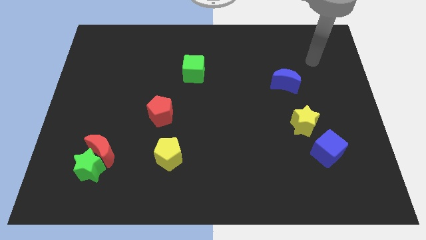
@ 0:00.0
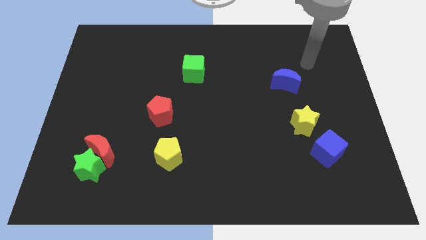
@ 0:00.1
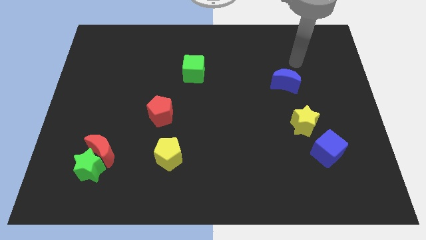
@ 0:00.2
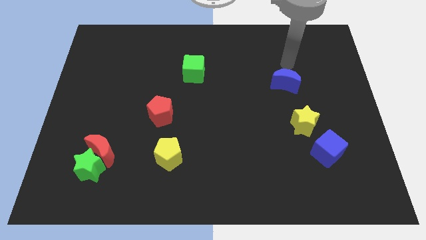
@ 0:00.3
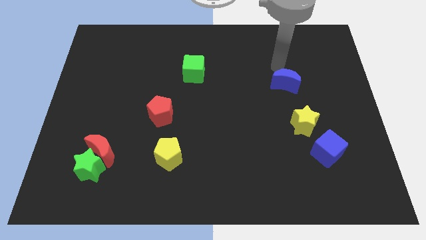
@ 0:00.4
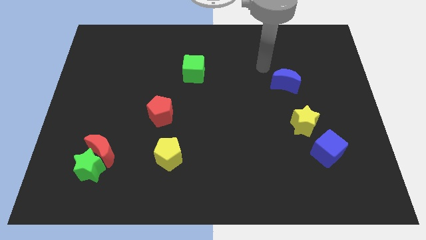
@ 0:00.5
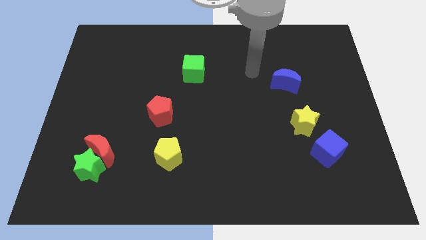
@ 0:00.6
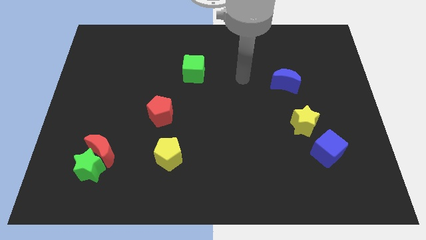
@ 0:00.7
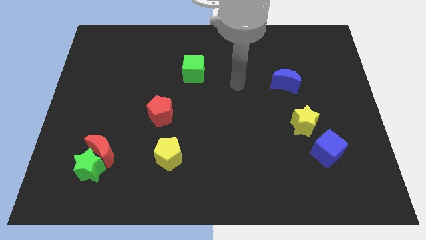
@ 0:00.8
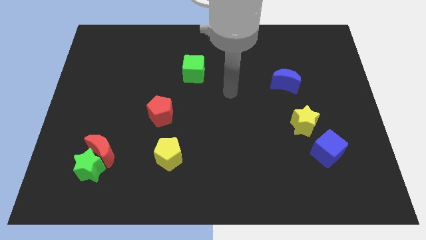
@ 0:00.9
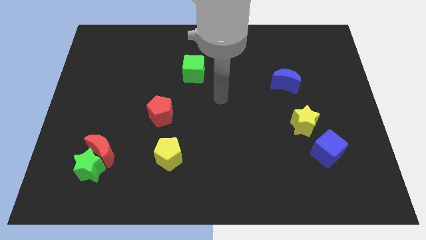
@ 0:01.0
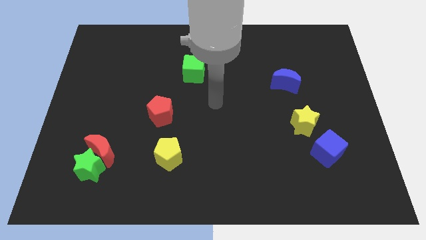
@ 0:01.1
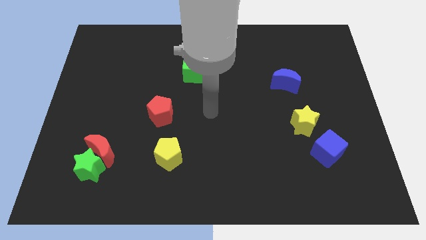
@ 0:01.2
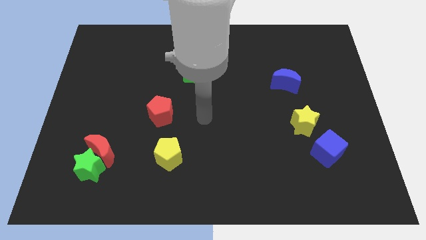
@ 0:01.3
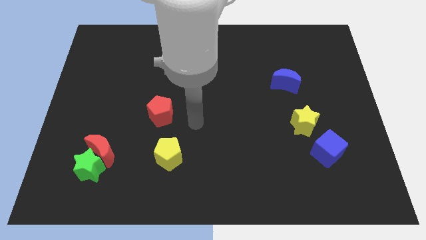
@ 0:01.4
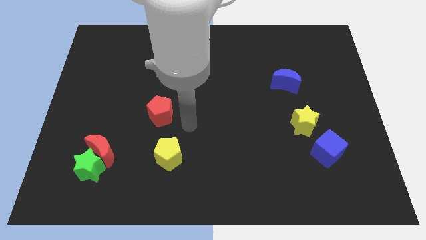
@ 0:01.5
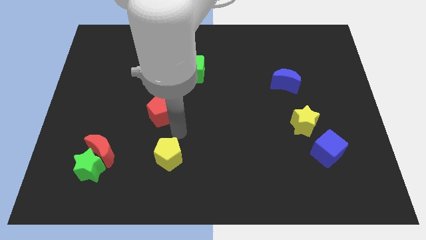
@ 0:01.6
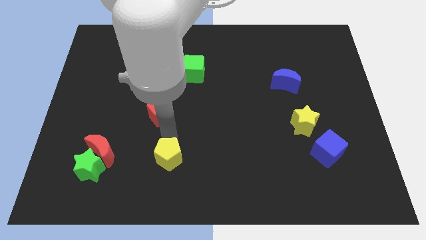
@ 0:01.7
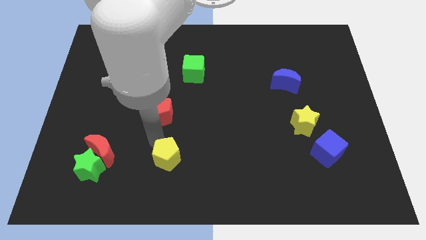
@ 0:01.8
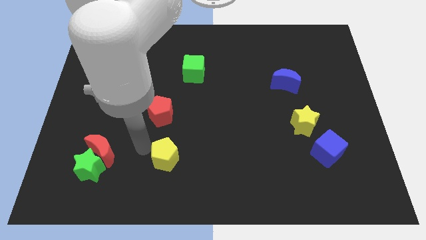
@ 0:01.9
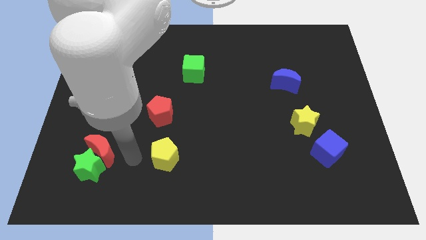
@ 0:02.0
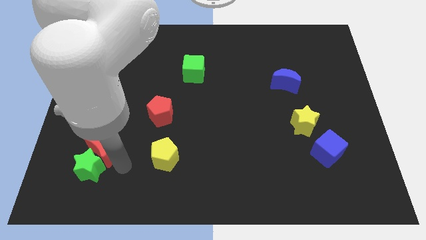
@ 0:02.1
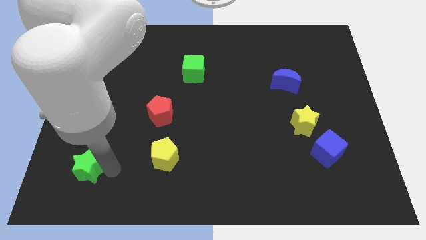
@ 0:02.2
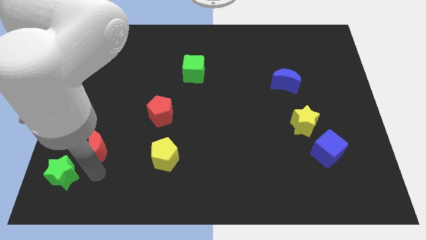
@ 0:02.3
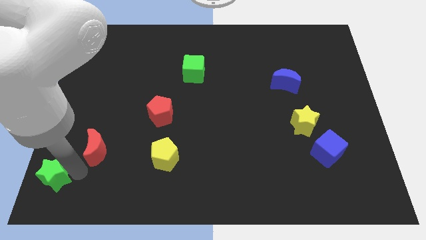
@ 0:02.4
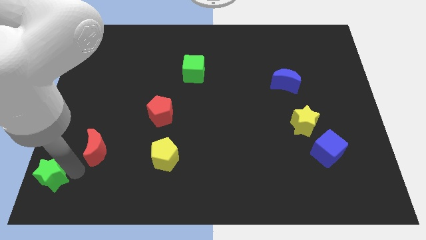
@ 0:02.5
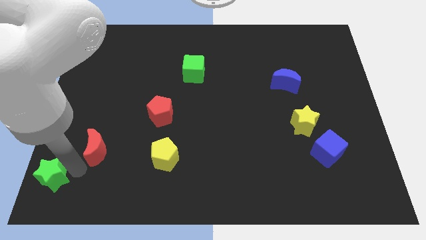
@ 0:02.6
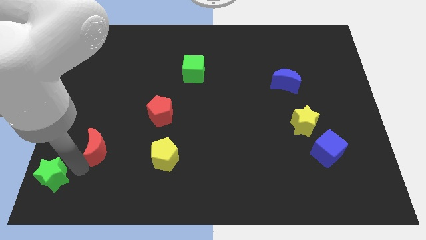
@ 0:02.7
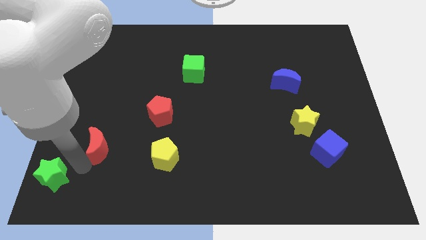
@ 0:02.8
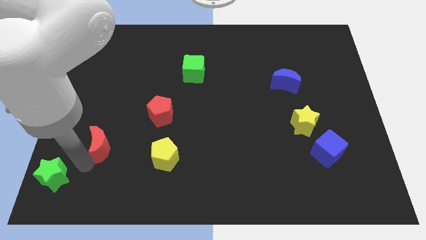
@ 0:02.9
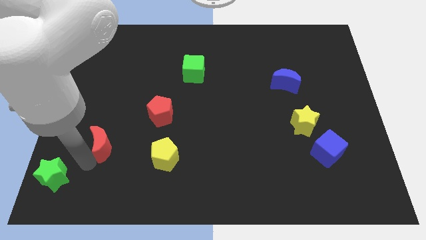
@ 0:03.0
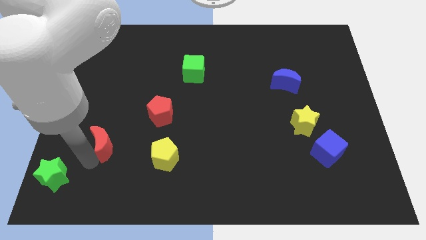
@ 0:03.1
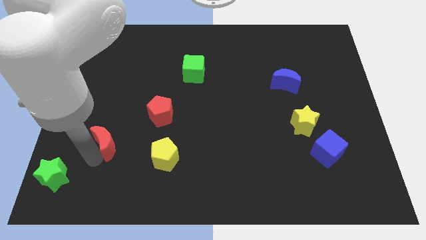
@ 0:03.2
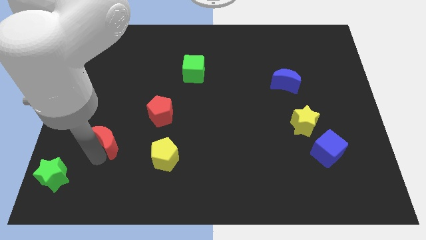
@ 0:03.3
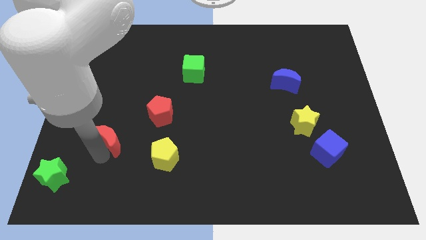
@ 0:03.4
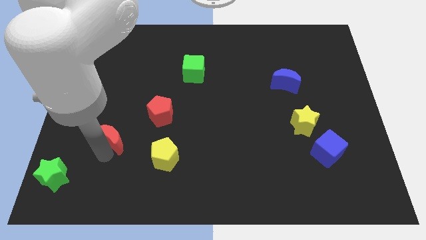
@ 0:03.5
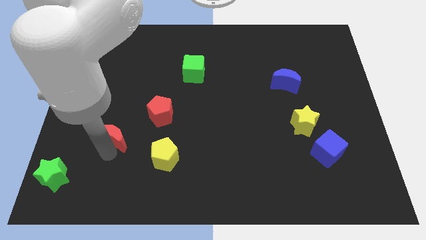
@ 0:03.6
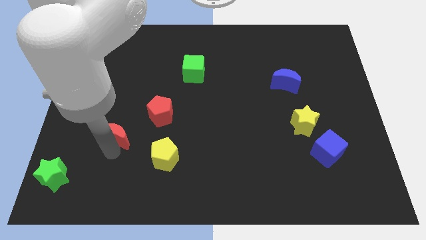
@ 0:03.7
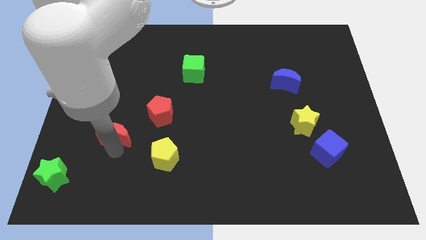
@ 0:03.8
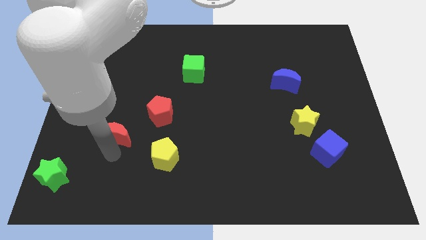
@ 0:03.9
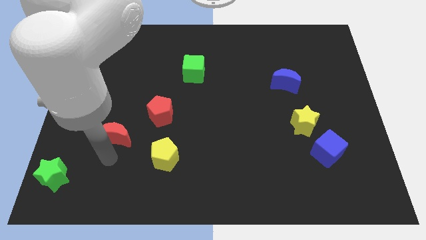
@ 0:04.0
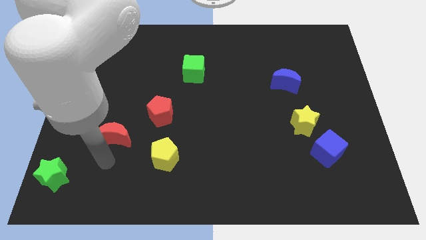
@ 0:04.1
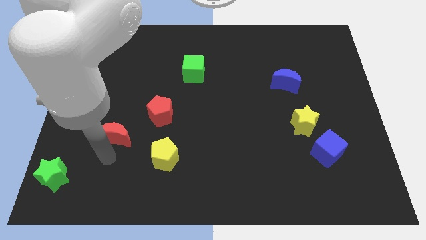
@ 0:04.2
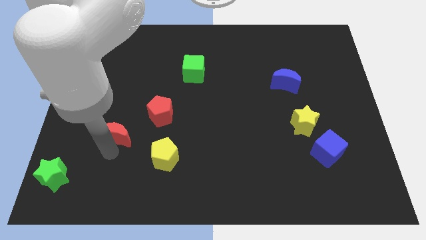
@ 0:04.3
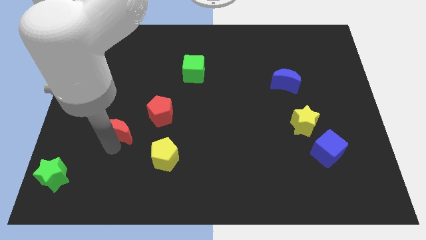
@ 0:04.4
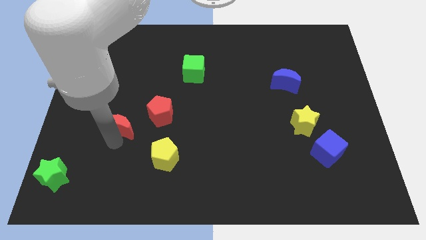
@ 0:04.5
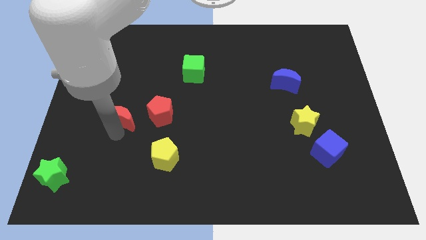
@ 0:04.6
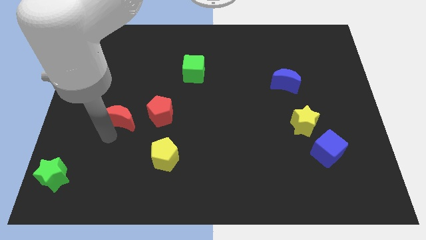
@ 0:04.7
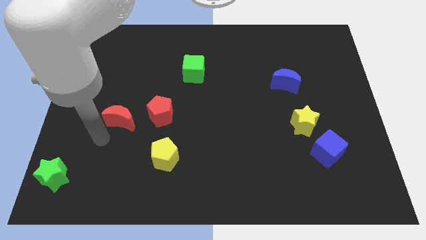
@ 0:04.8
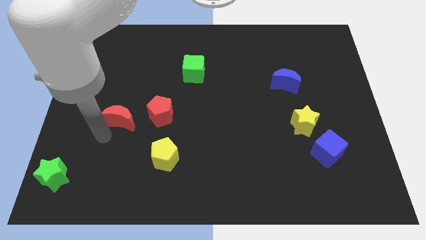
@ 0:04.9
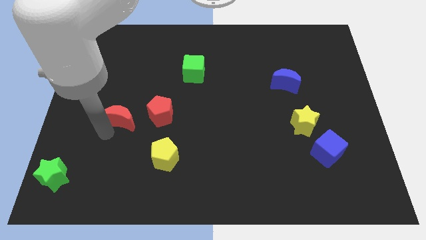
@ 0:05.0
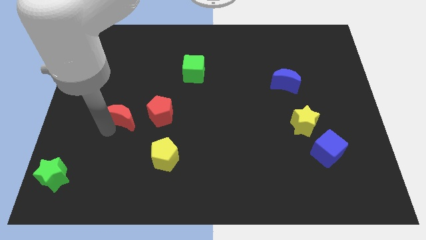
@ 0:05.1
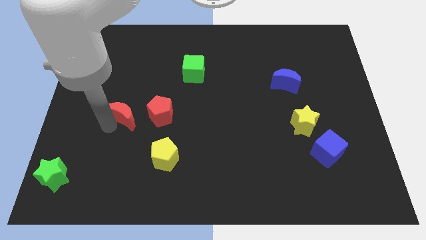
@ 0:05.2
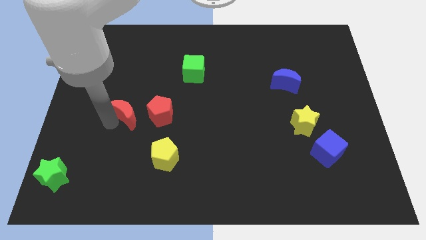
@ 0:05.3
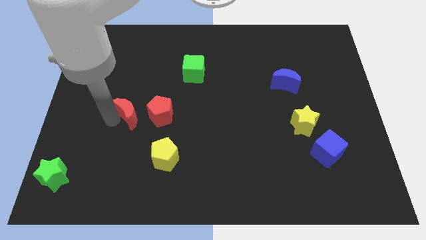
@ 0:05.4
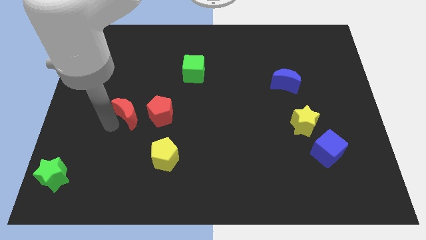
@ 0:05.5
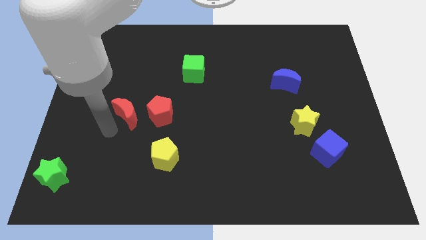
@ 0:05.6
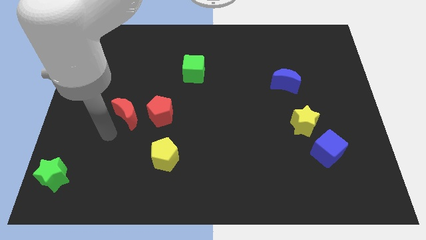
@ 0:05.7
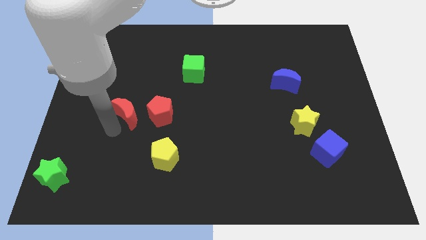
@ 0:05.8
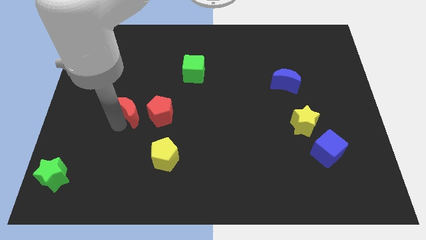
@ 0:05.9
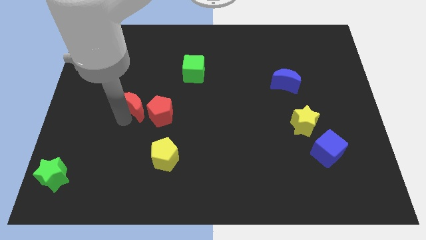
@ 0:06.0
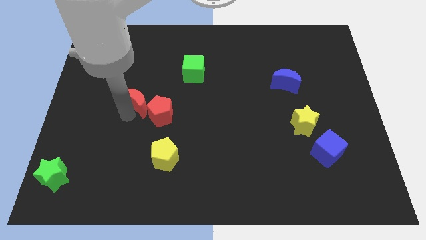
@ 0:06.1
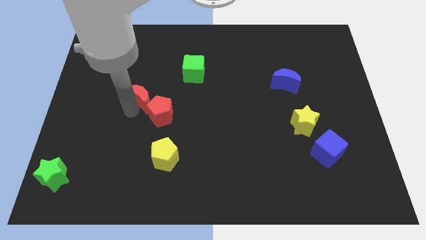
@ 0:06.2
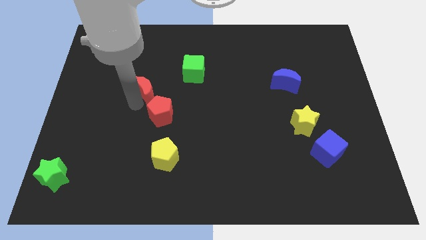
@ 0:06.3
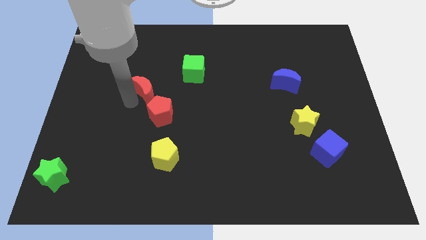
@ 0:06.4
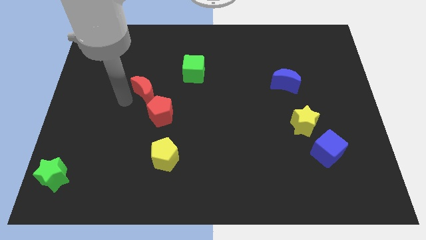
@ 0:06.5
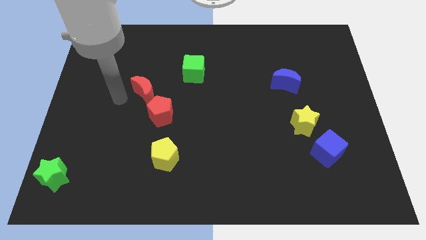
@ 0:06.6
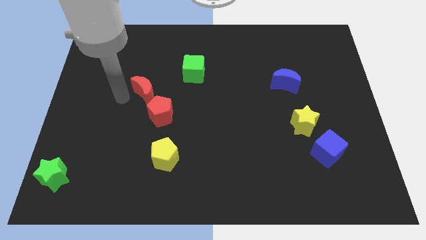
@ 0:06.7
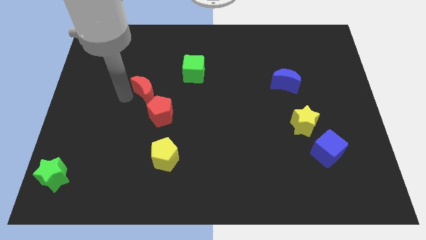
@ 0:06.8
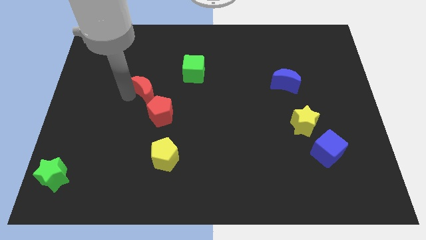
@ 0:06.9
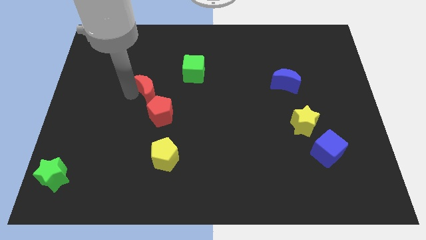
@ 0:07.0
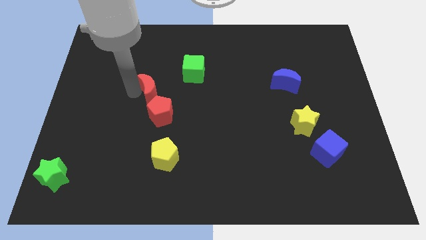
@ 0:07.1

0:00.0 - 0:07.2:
push the red moon diagonally down and to the left of the green cube
